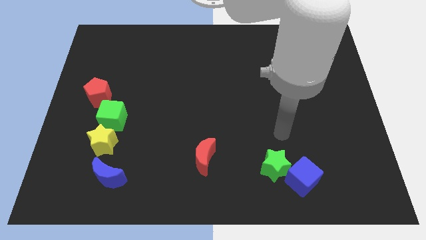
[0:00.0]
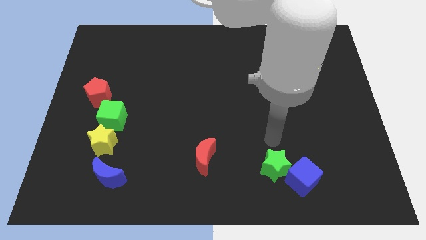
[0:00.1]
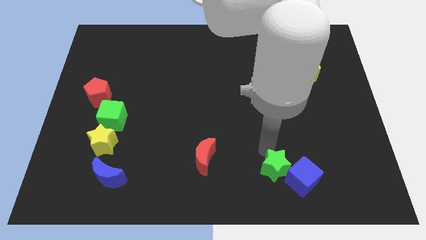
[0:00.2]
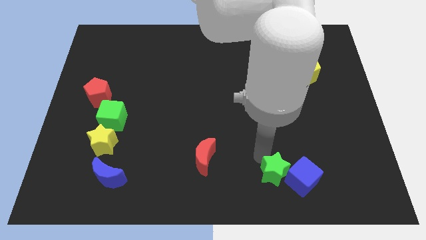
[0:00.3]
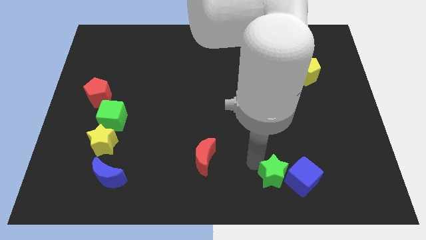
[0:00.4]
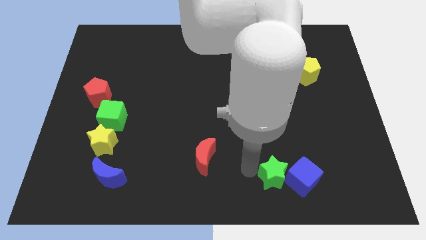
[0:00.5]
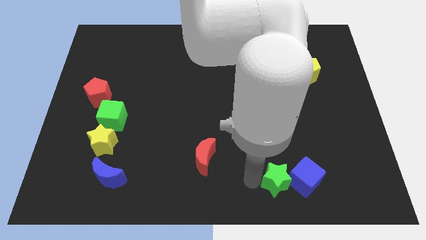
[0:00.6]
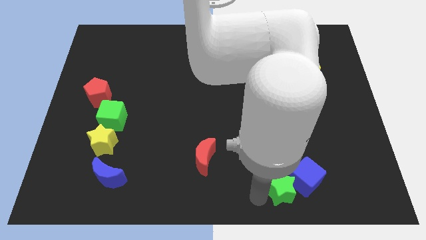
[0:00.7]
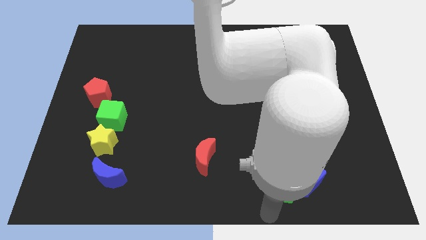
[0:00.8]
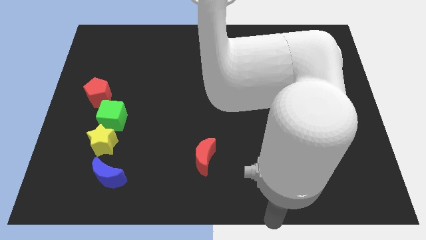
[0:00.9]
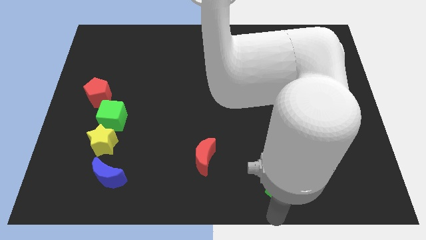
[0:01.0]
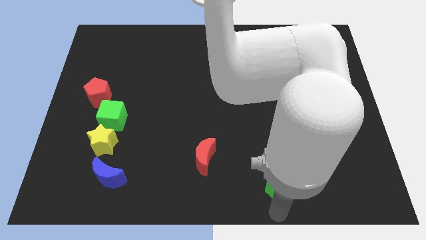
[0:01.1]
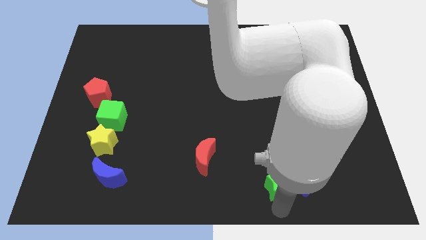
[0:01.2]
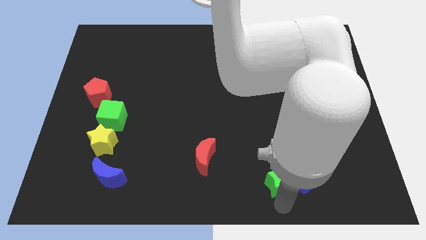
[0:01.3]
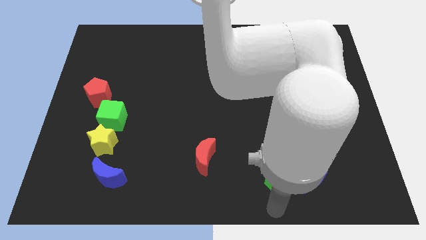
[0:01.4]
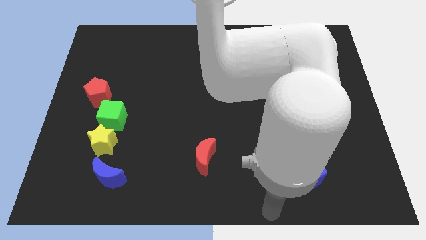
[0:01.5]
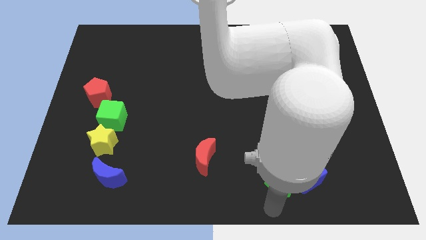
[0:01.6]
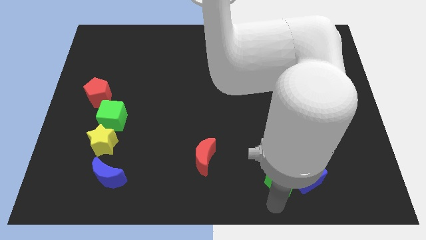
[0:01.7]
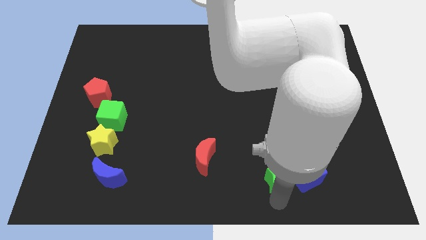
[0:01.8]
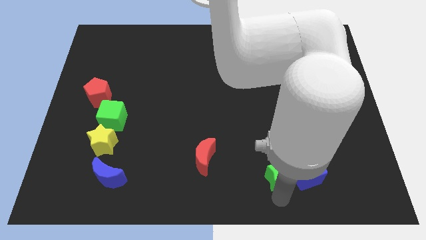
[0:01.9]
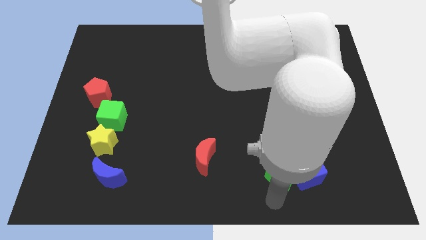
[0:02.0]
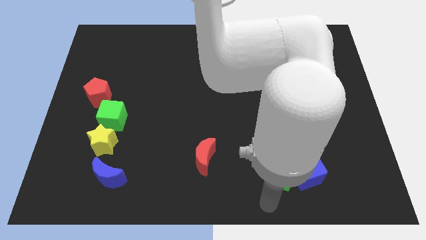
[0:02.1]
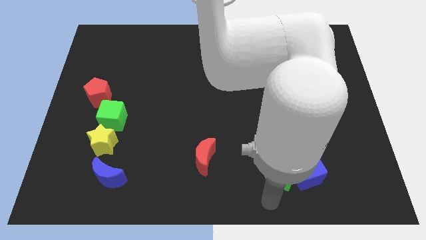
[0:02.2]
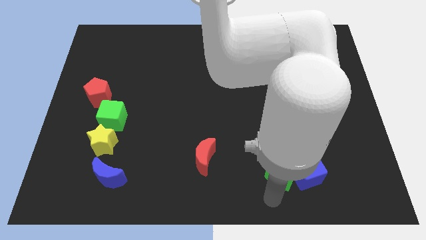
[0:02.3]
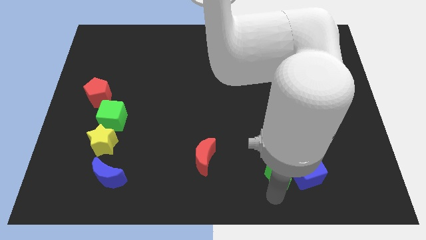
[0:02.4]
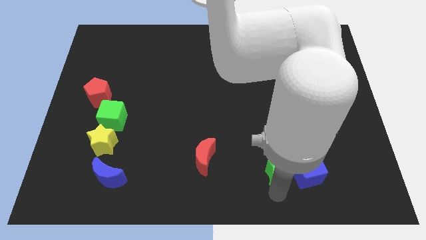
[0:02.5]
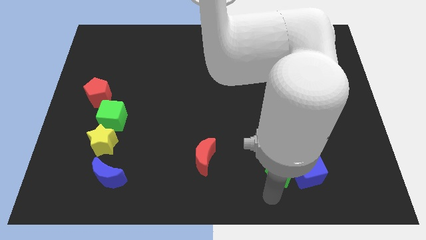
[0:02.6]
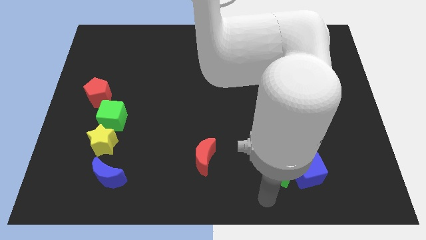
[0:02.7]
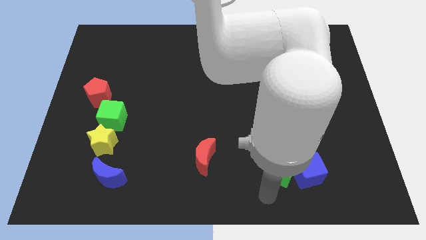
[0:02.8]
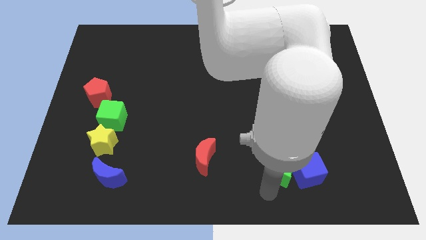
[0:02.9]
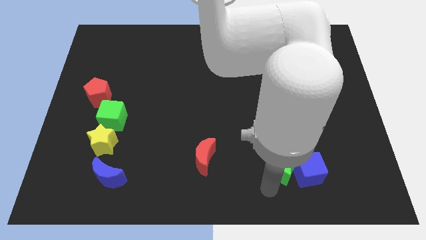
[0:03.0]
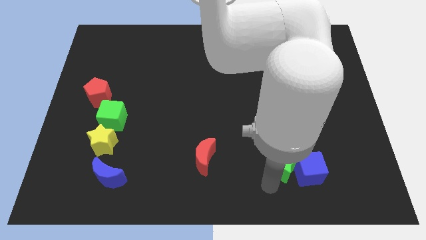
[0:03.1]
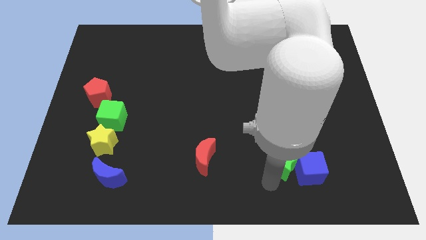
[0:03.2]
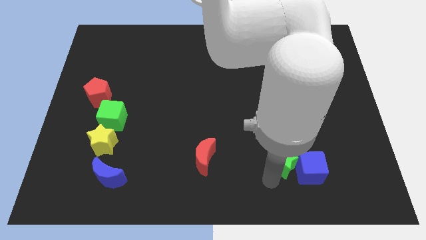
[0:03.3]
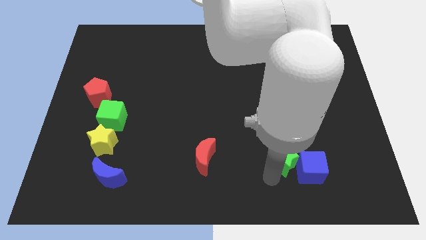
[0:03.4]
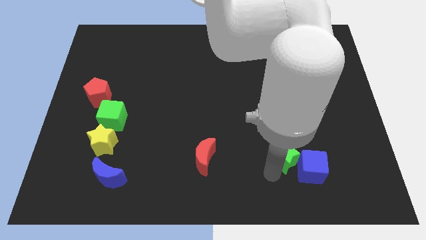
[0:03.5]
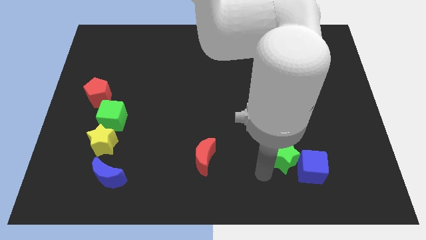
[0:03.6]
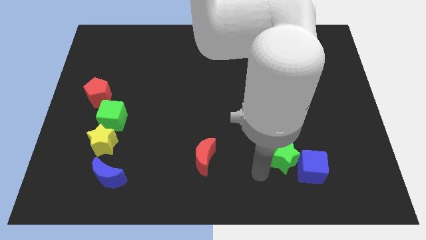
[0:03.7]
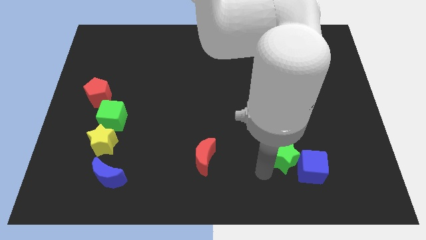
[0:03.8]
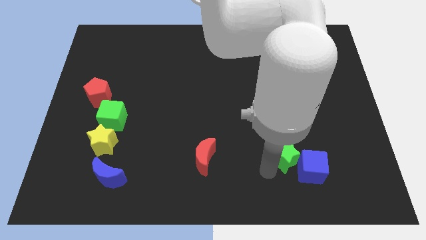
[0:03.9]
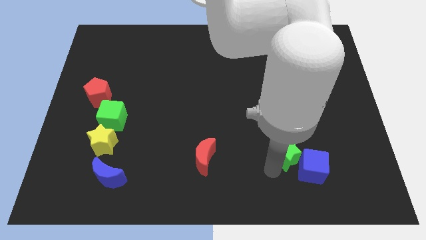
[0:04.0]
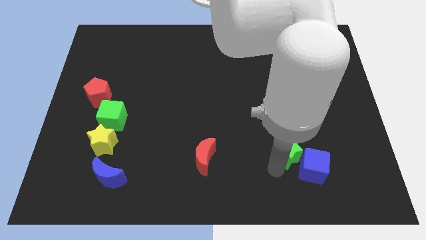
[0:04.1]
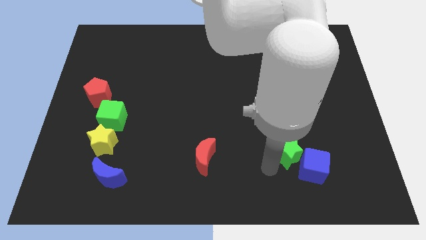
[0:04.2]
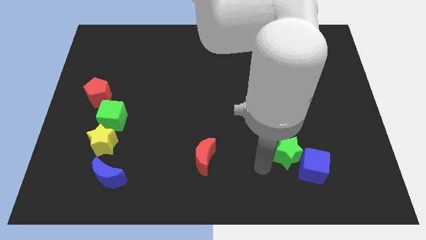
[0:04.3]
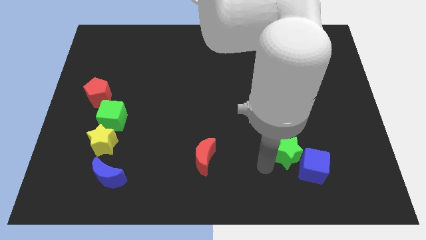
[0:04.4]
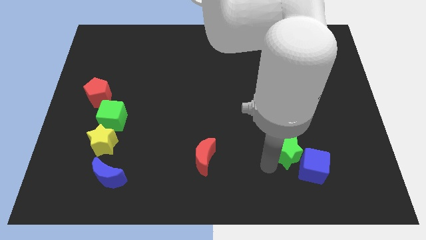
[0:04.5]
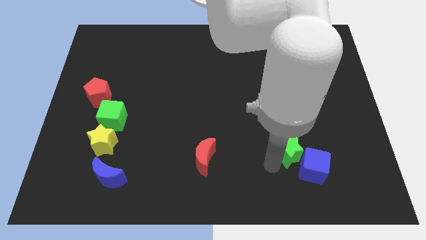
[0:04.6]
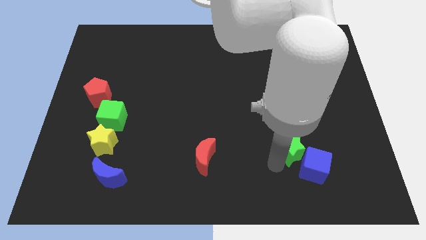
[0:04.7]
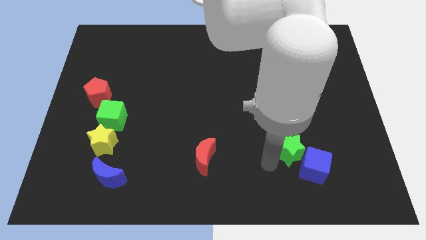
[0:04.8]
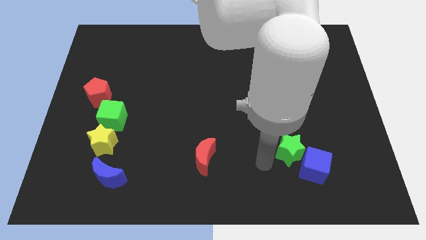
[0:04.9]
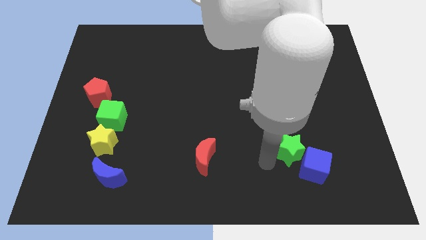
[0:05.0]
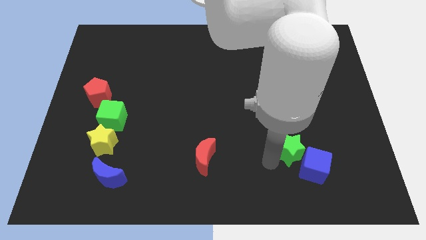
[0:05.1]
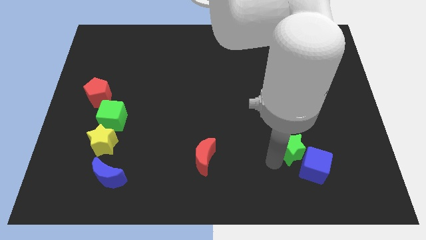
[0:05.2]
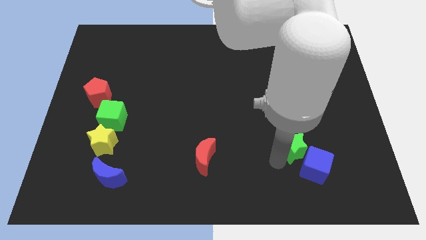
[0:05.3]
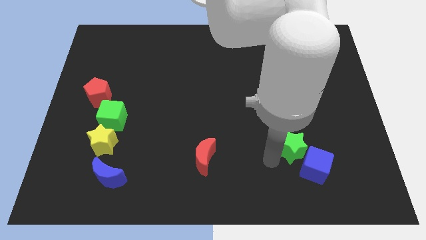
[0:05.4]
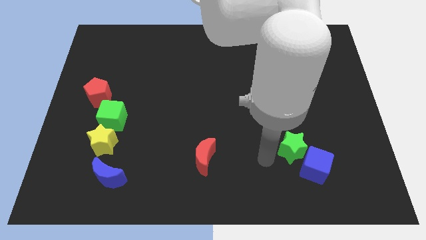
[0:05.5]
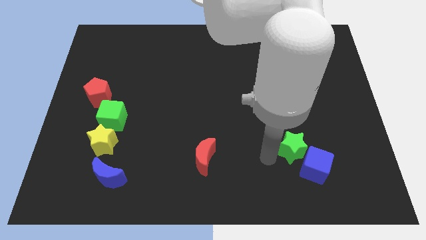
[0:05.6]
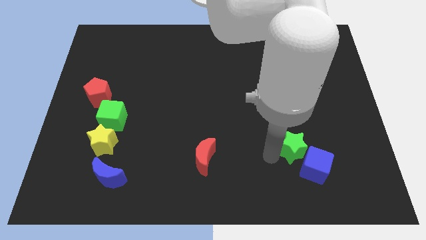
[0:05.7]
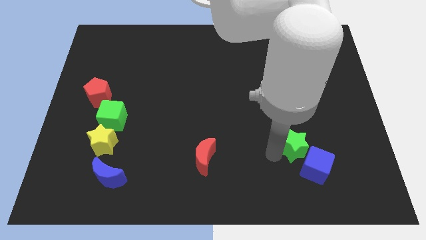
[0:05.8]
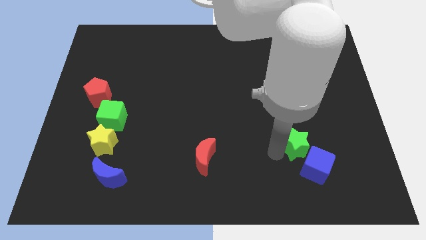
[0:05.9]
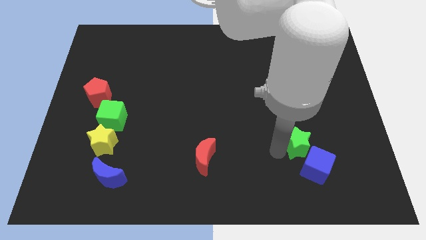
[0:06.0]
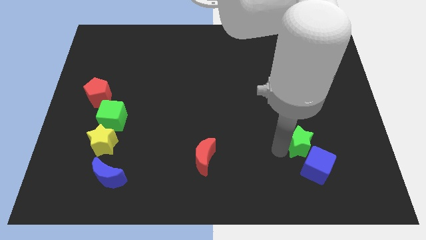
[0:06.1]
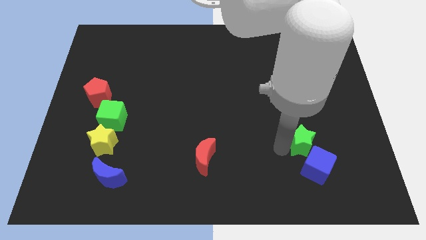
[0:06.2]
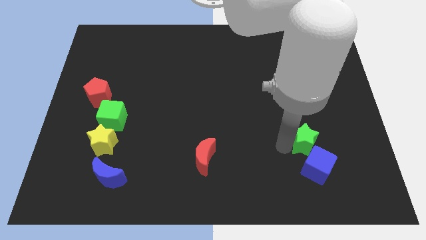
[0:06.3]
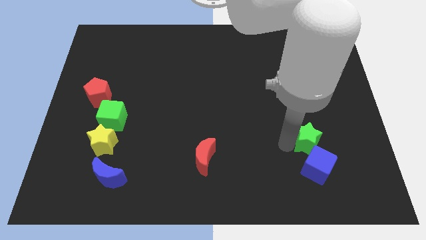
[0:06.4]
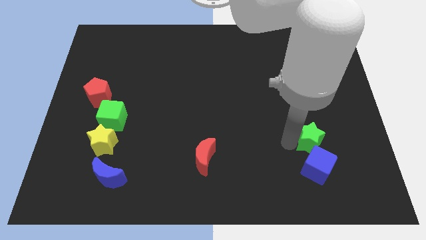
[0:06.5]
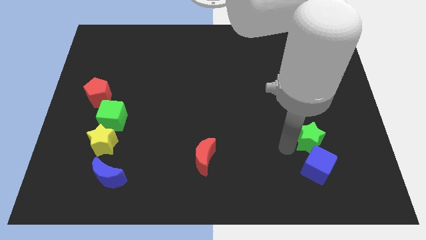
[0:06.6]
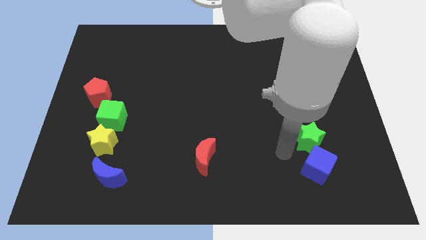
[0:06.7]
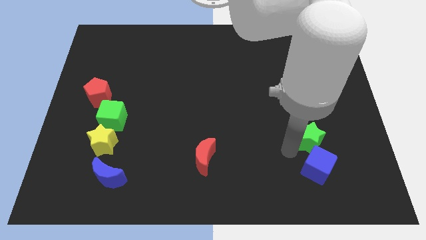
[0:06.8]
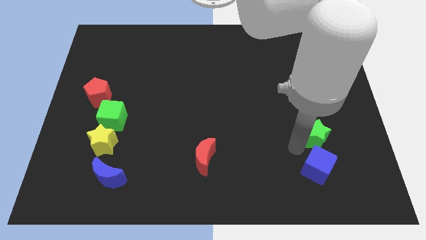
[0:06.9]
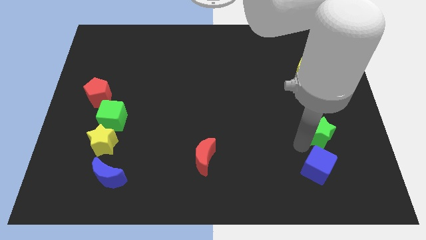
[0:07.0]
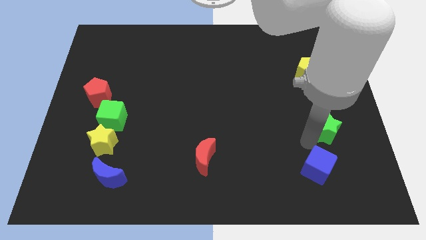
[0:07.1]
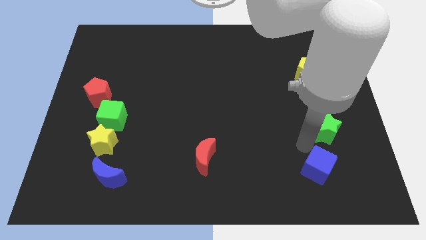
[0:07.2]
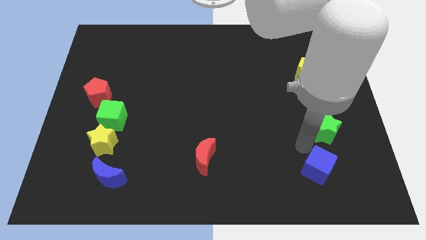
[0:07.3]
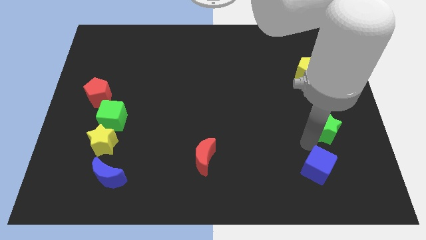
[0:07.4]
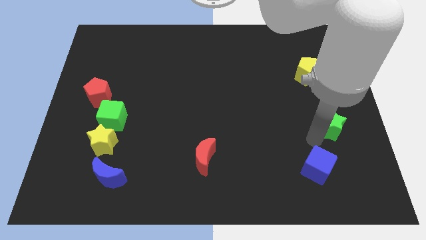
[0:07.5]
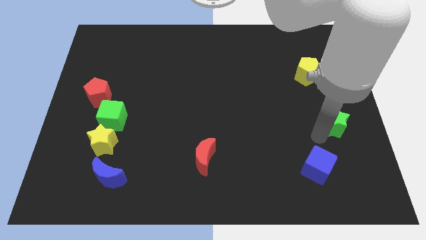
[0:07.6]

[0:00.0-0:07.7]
move the green star to the right side

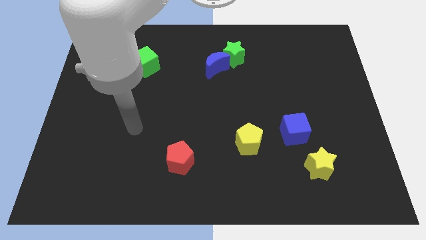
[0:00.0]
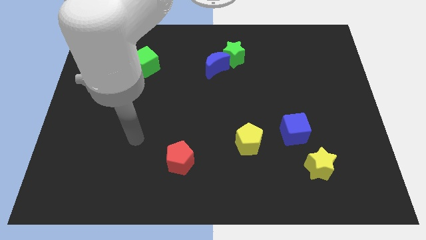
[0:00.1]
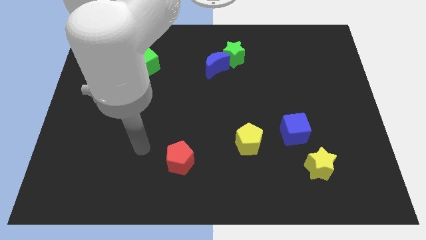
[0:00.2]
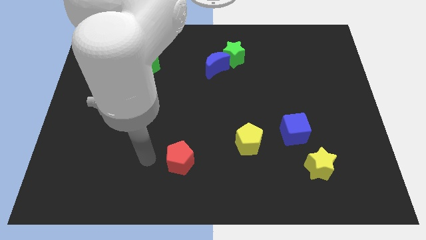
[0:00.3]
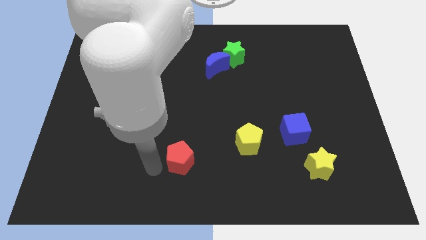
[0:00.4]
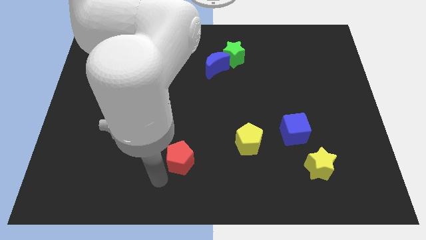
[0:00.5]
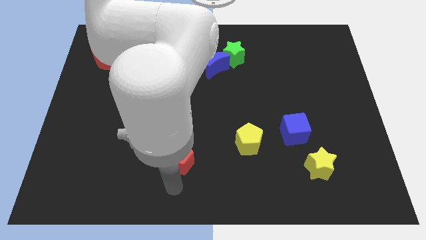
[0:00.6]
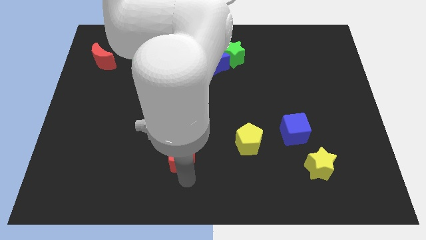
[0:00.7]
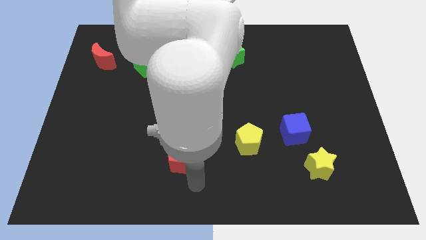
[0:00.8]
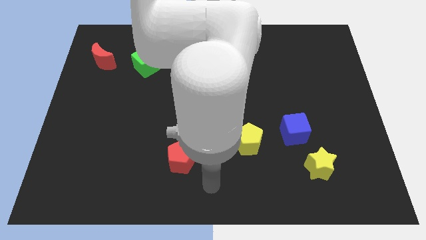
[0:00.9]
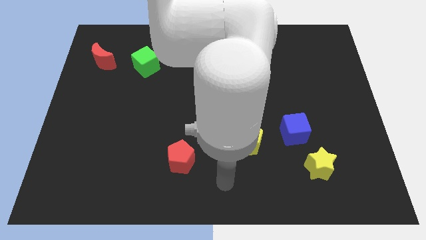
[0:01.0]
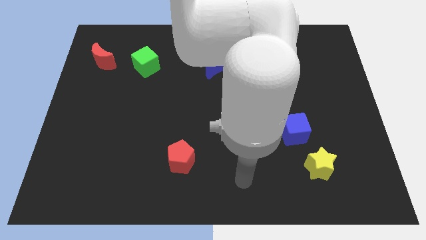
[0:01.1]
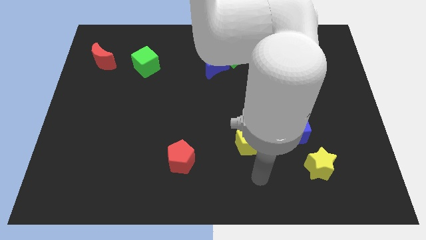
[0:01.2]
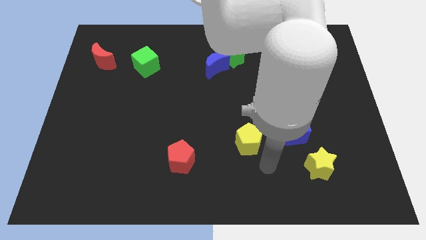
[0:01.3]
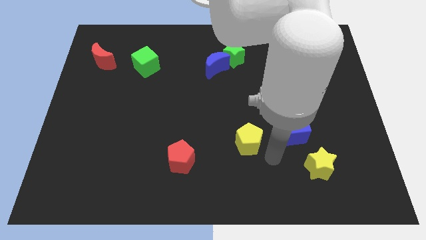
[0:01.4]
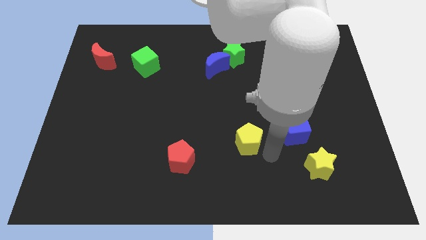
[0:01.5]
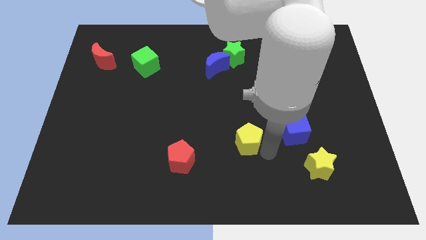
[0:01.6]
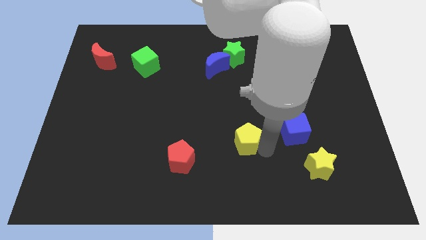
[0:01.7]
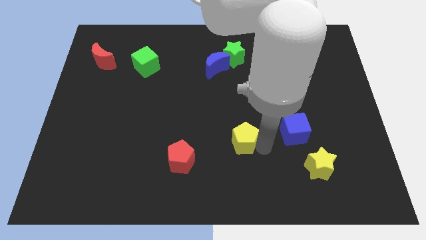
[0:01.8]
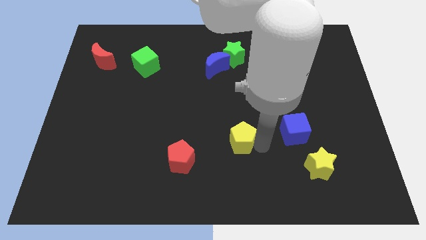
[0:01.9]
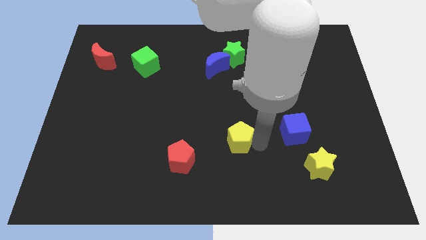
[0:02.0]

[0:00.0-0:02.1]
move the yellow pentagon to the center of the board
